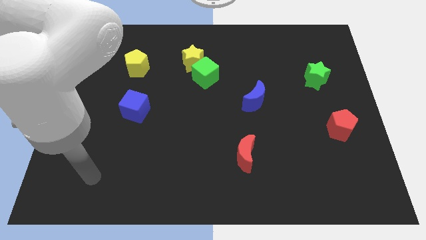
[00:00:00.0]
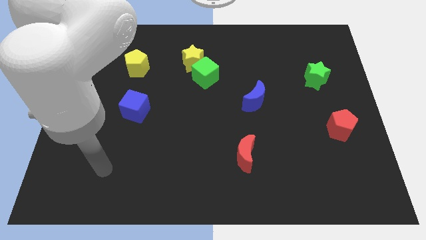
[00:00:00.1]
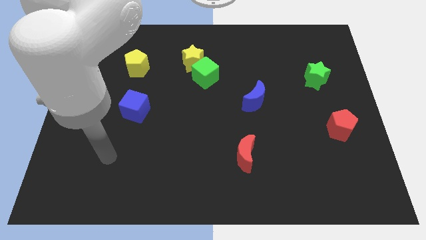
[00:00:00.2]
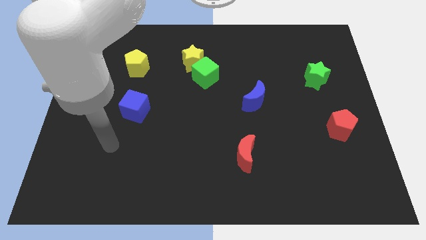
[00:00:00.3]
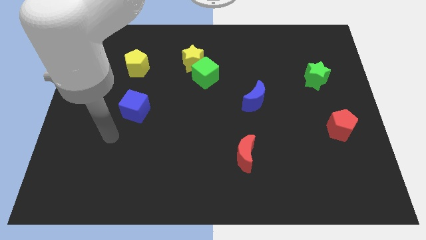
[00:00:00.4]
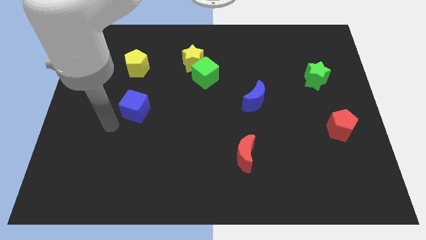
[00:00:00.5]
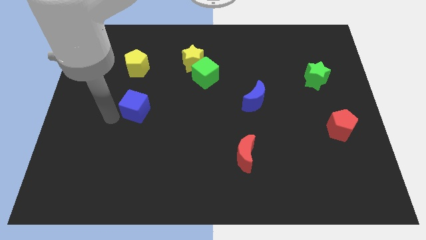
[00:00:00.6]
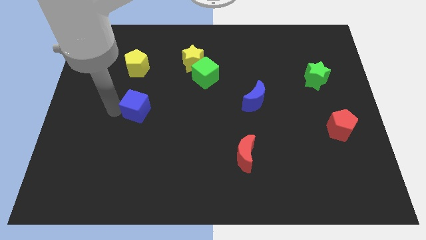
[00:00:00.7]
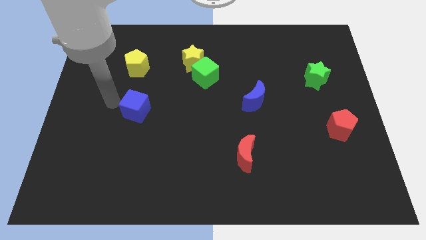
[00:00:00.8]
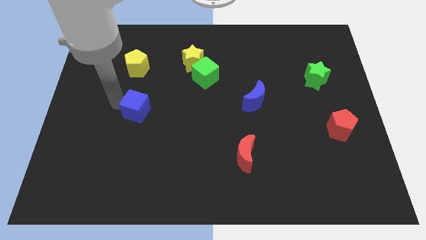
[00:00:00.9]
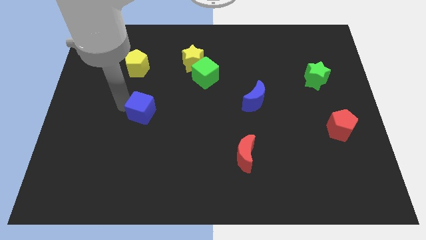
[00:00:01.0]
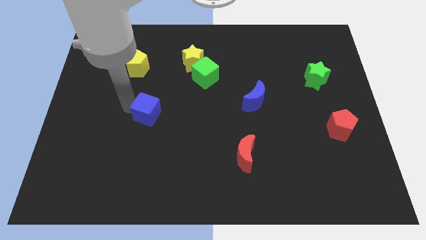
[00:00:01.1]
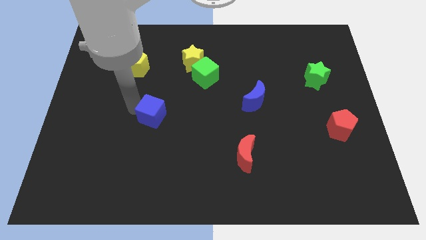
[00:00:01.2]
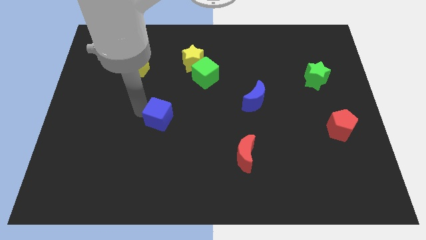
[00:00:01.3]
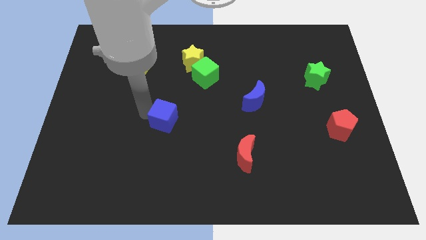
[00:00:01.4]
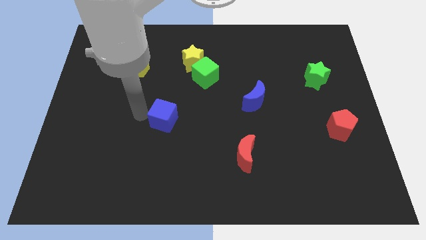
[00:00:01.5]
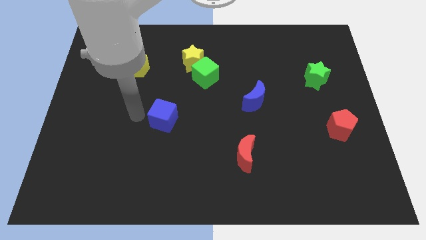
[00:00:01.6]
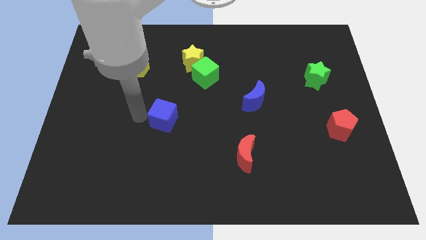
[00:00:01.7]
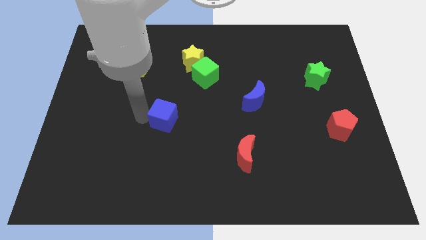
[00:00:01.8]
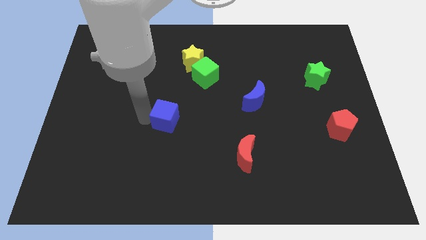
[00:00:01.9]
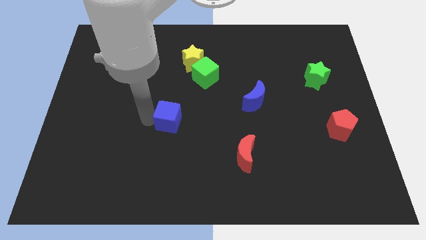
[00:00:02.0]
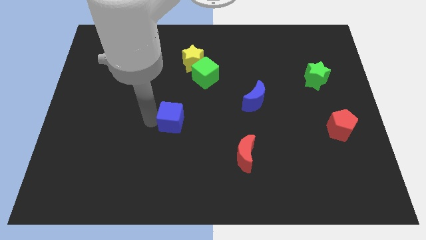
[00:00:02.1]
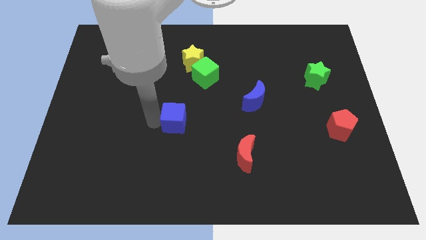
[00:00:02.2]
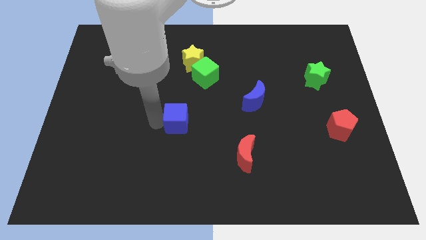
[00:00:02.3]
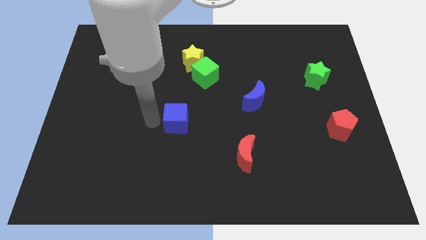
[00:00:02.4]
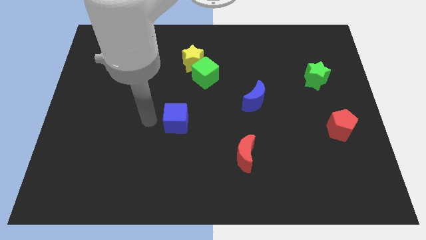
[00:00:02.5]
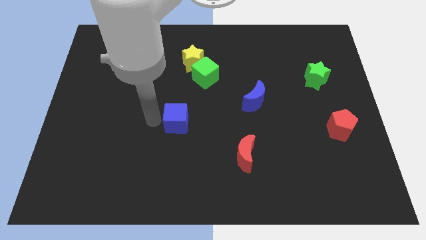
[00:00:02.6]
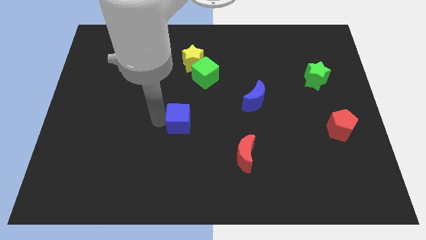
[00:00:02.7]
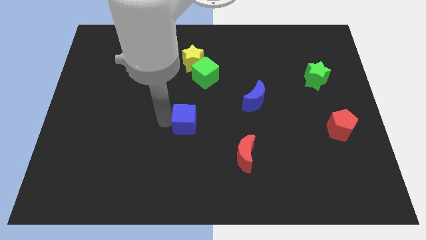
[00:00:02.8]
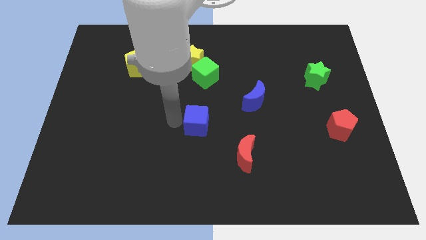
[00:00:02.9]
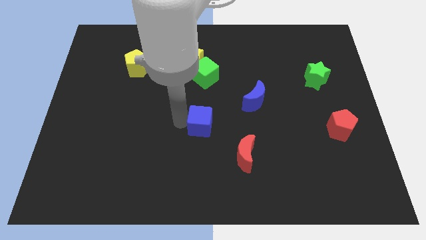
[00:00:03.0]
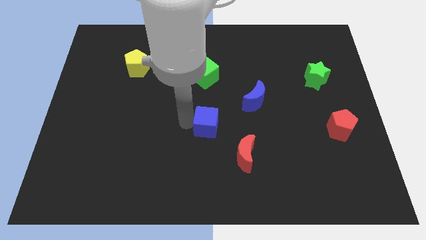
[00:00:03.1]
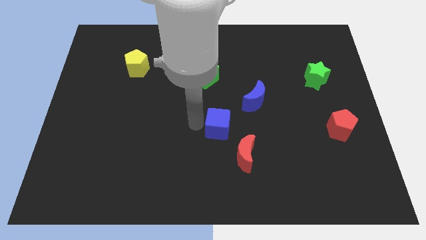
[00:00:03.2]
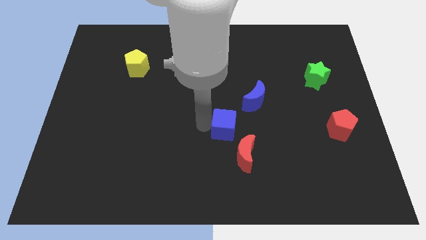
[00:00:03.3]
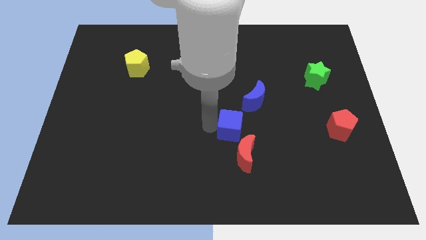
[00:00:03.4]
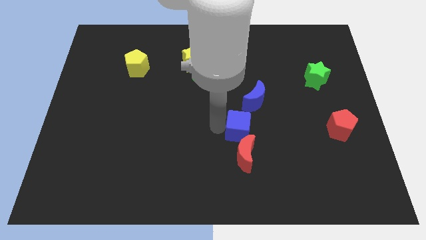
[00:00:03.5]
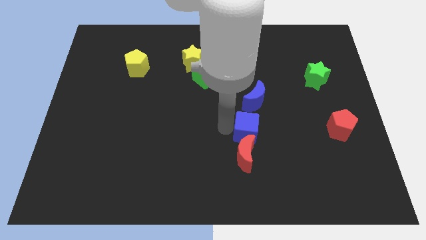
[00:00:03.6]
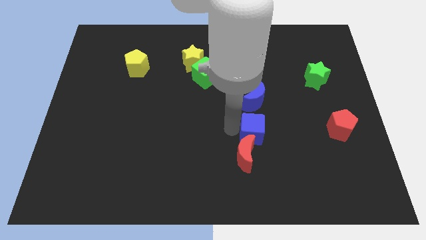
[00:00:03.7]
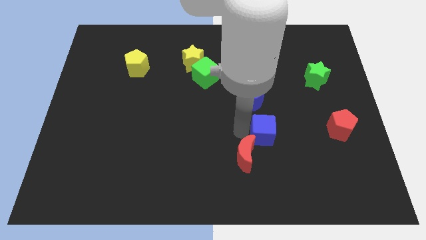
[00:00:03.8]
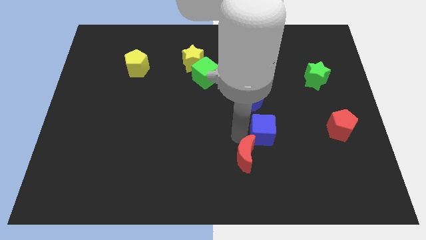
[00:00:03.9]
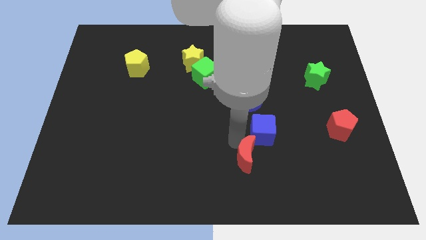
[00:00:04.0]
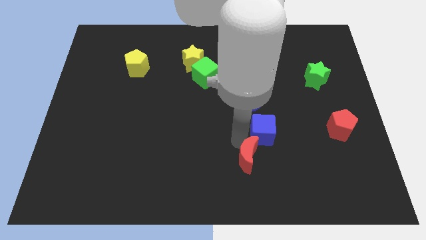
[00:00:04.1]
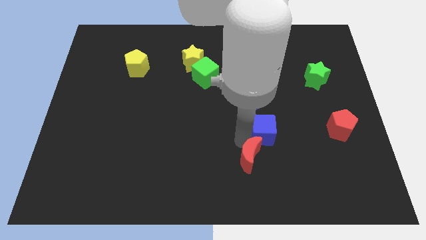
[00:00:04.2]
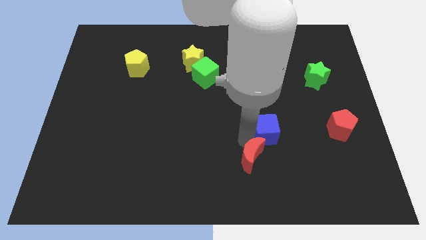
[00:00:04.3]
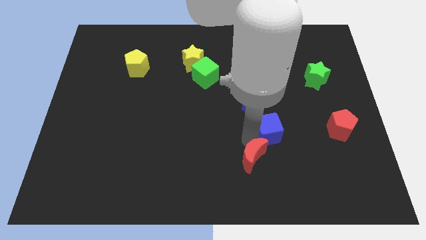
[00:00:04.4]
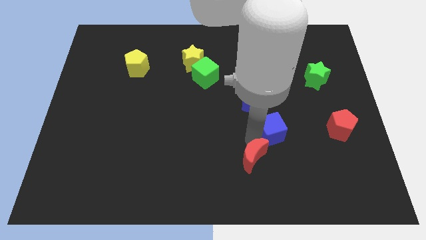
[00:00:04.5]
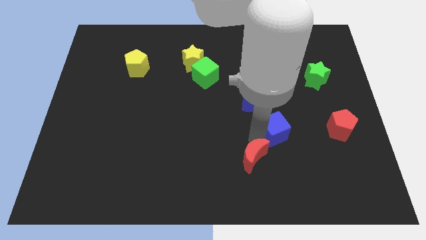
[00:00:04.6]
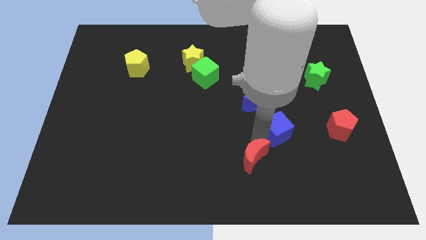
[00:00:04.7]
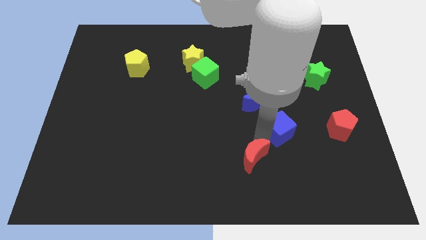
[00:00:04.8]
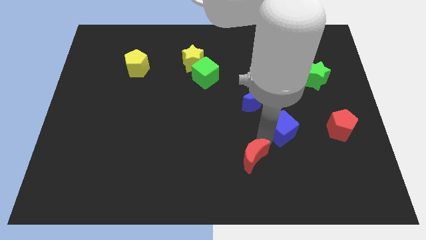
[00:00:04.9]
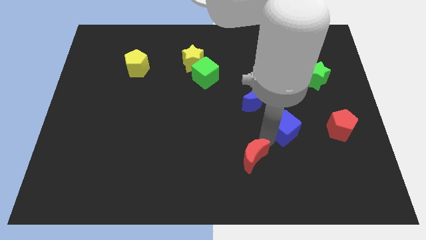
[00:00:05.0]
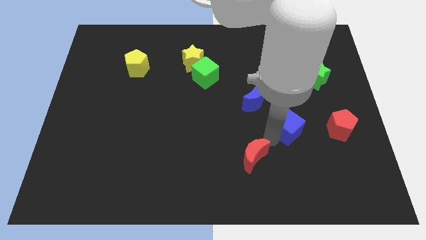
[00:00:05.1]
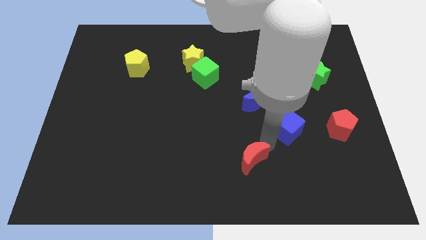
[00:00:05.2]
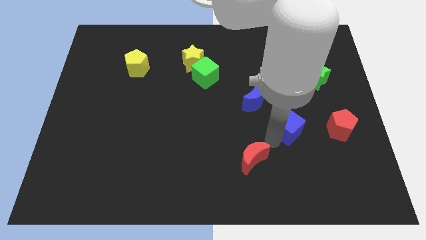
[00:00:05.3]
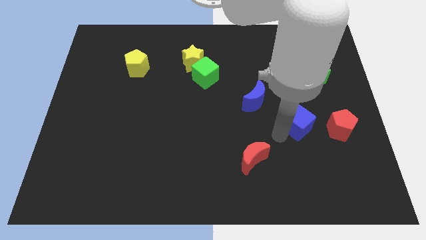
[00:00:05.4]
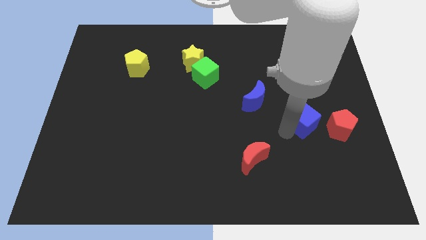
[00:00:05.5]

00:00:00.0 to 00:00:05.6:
push the blue cube diagonally up and to the left of the red pentagon

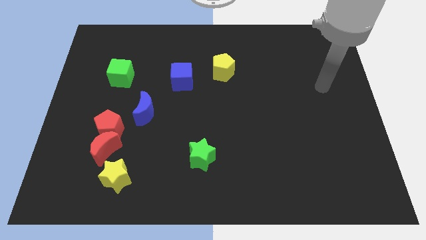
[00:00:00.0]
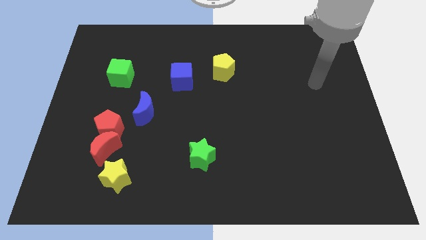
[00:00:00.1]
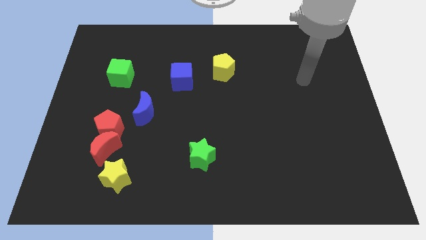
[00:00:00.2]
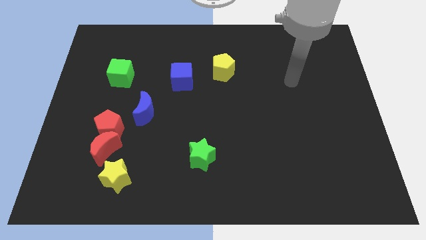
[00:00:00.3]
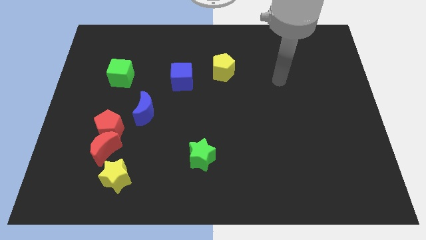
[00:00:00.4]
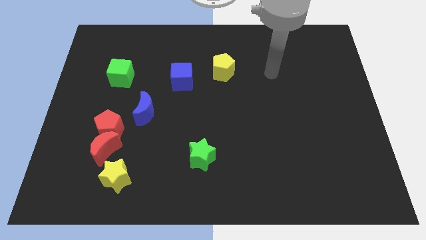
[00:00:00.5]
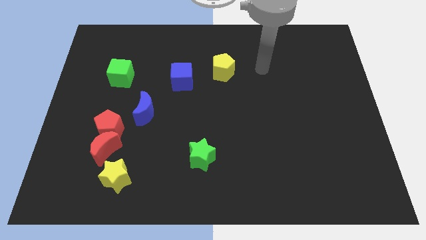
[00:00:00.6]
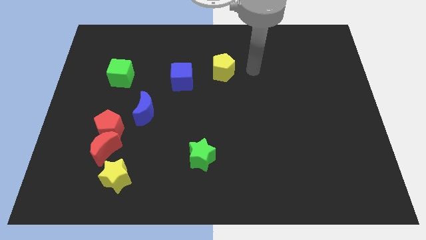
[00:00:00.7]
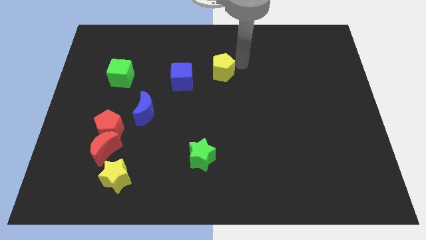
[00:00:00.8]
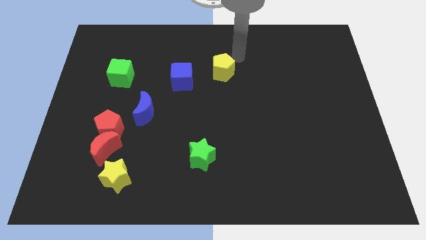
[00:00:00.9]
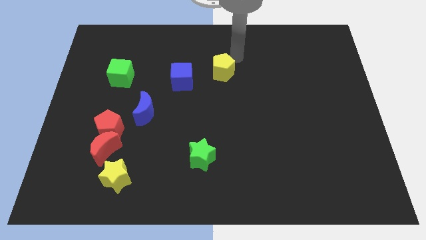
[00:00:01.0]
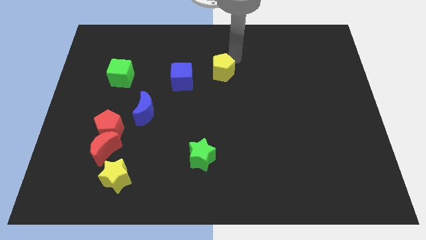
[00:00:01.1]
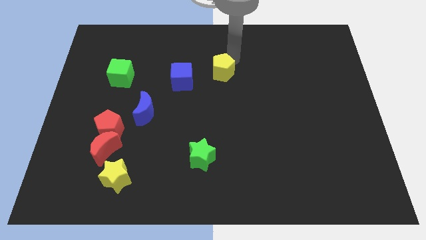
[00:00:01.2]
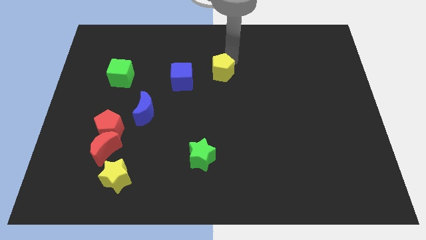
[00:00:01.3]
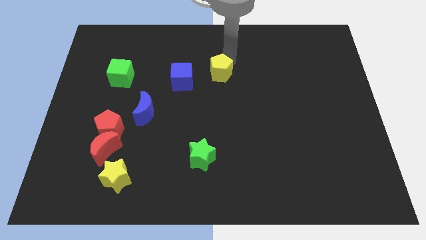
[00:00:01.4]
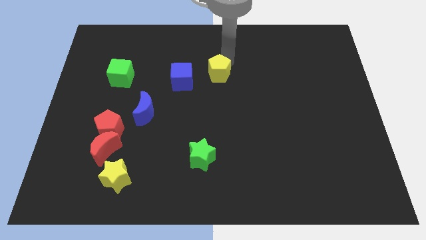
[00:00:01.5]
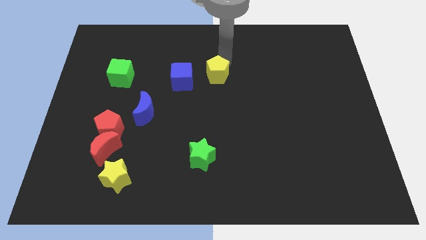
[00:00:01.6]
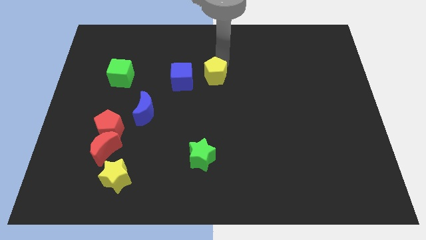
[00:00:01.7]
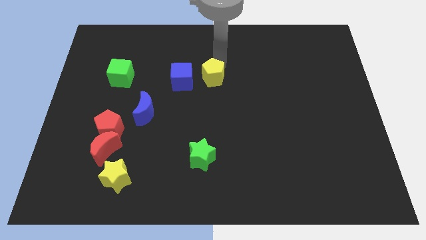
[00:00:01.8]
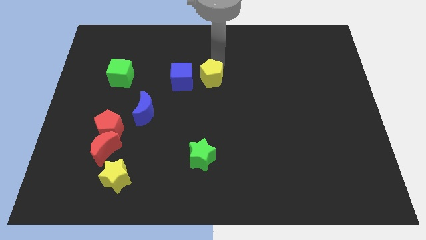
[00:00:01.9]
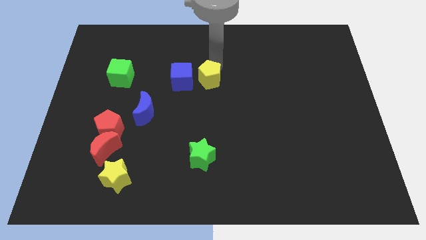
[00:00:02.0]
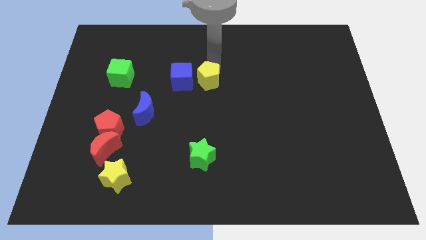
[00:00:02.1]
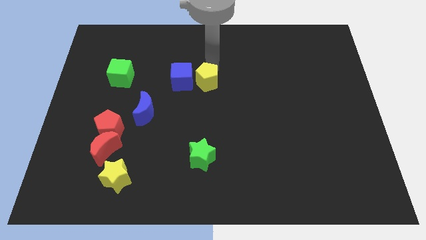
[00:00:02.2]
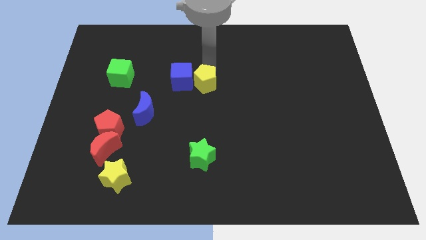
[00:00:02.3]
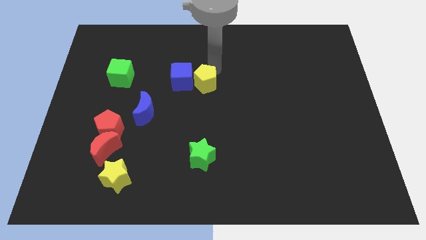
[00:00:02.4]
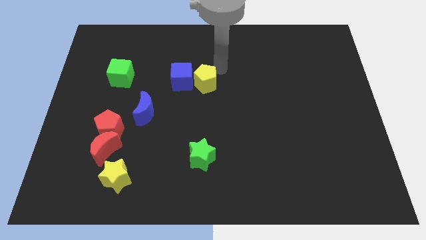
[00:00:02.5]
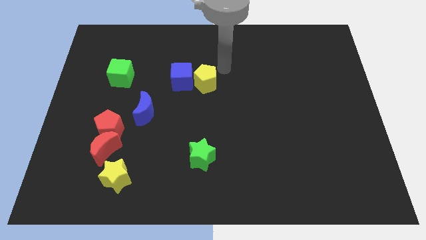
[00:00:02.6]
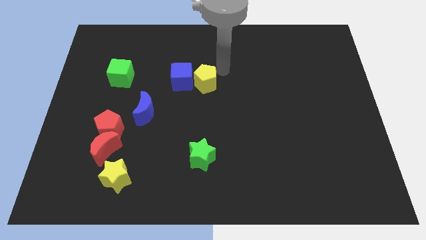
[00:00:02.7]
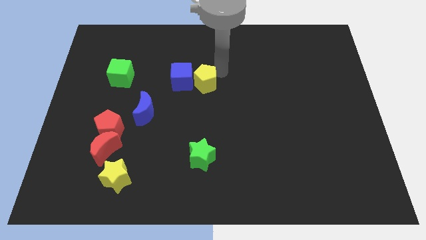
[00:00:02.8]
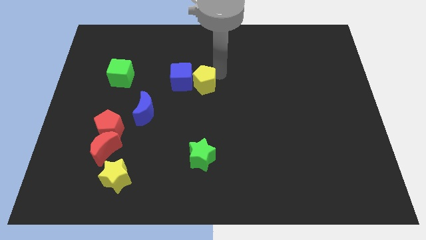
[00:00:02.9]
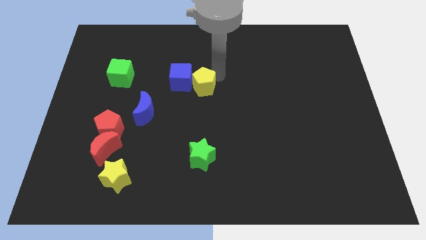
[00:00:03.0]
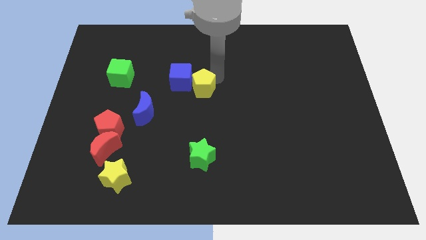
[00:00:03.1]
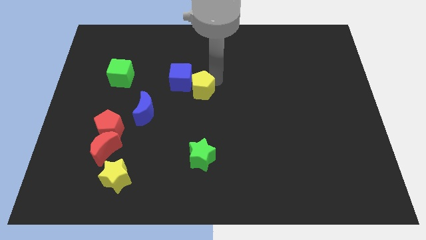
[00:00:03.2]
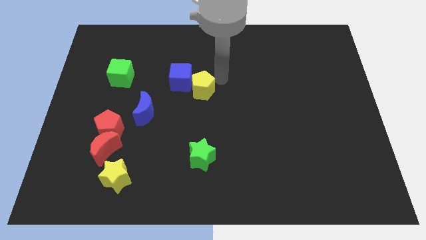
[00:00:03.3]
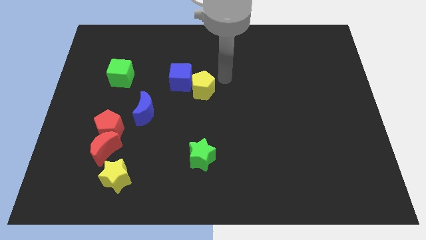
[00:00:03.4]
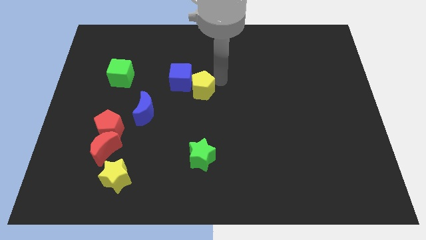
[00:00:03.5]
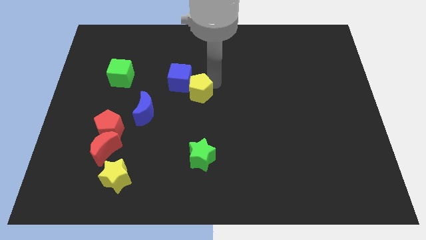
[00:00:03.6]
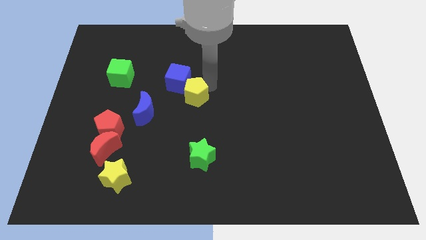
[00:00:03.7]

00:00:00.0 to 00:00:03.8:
move the yellow pentagon to the bottom side of the blue cube
